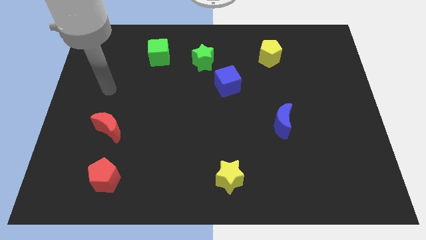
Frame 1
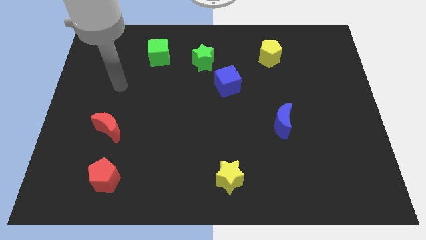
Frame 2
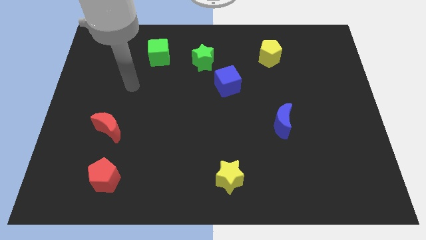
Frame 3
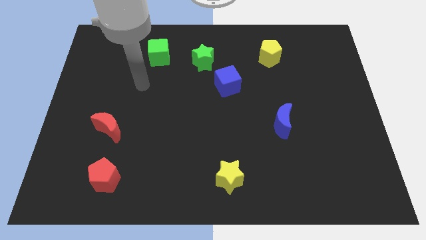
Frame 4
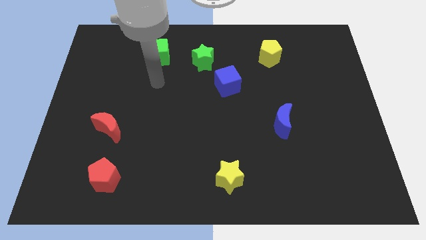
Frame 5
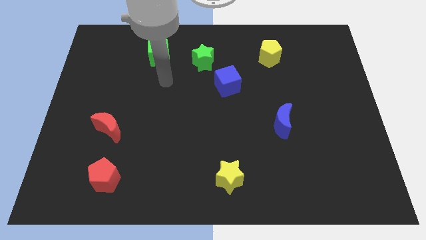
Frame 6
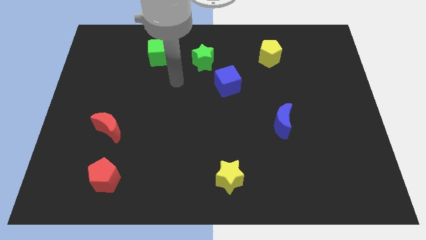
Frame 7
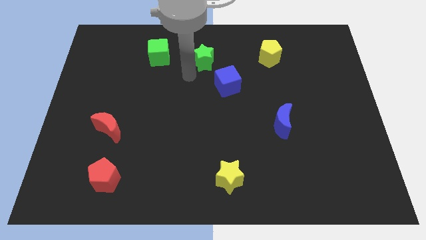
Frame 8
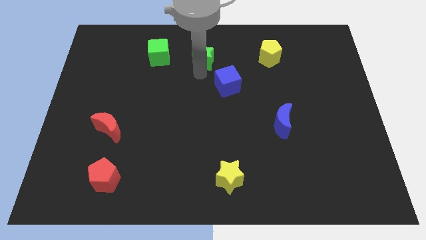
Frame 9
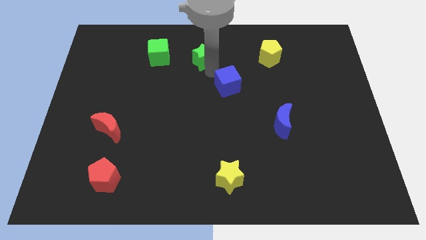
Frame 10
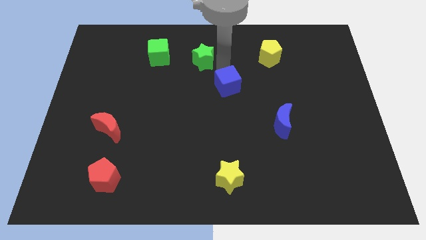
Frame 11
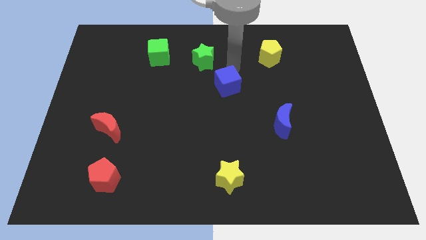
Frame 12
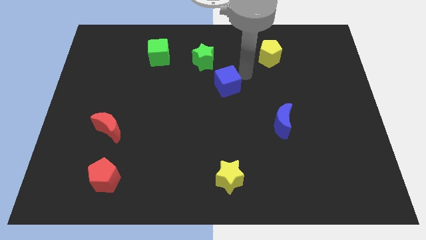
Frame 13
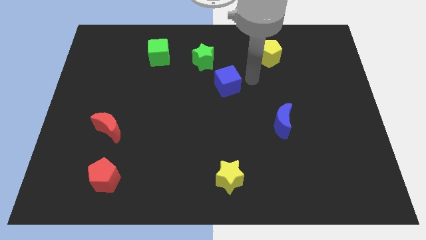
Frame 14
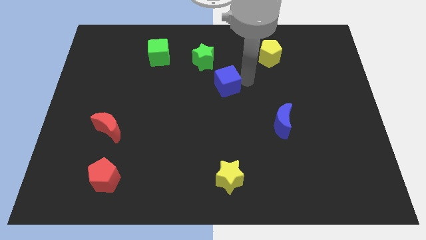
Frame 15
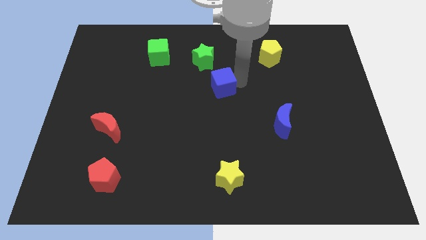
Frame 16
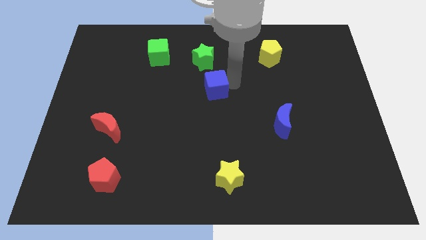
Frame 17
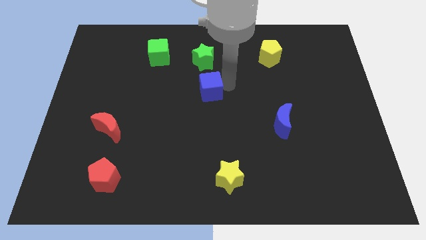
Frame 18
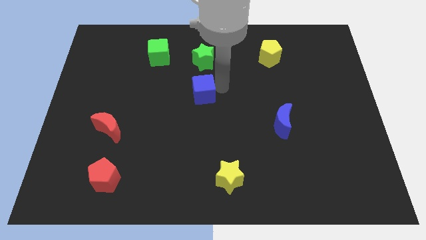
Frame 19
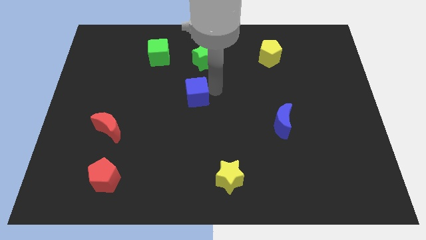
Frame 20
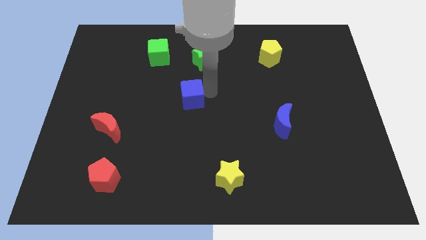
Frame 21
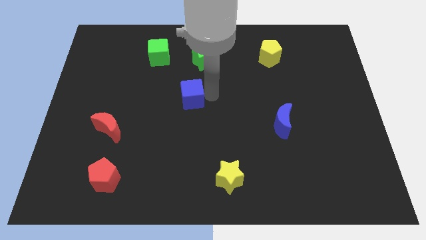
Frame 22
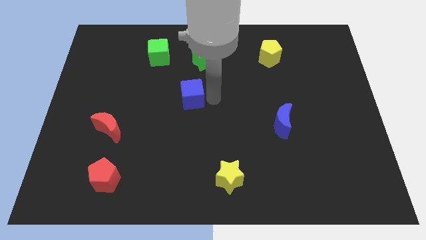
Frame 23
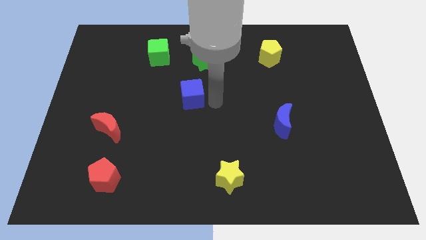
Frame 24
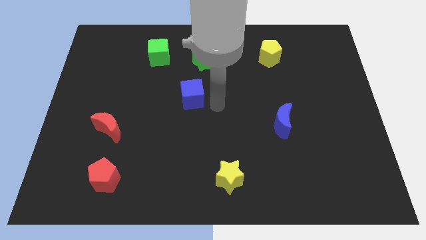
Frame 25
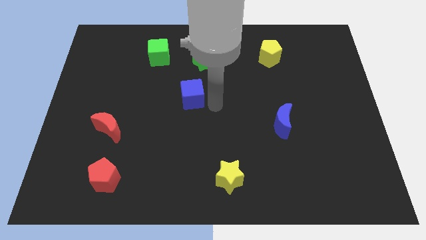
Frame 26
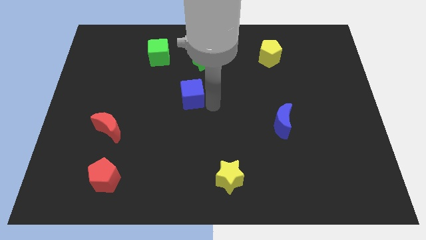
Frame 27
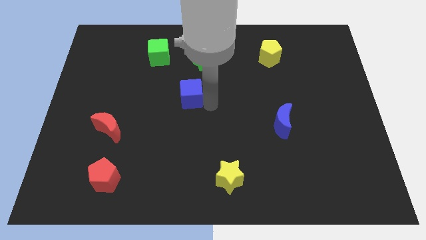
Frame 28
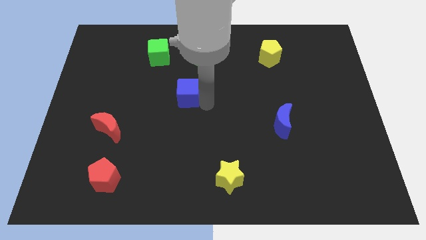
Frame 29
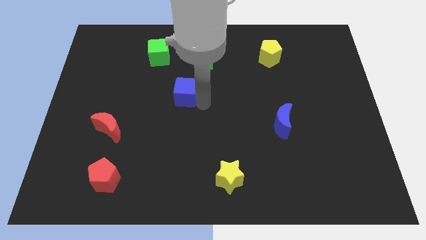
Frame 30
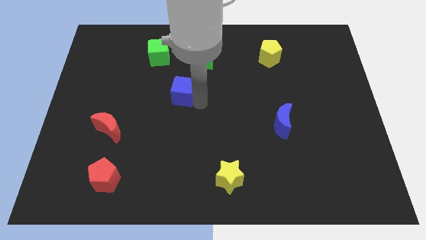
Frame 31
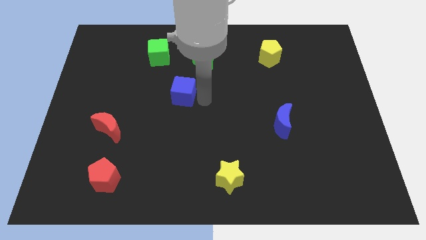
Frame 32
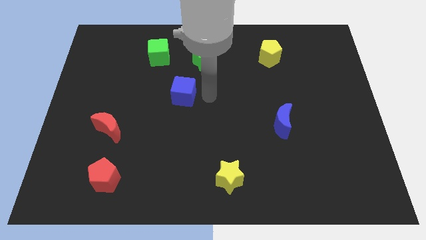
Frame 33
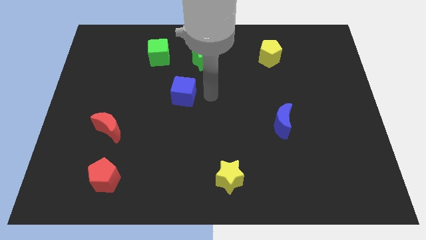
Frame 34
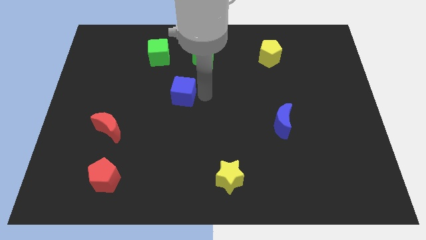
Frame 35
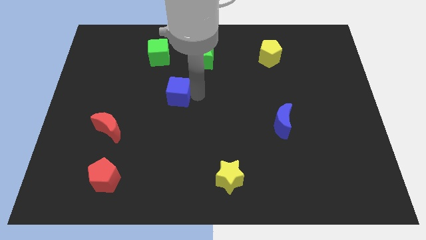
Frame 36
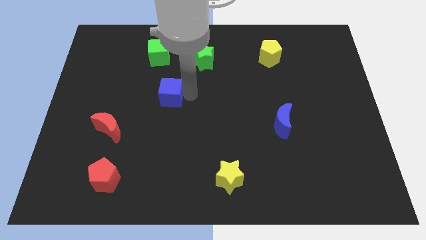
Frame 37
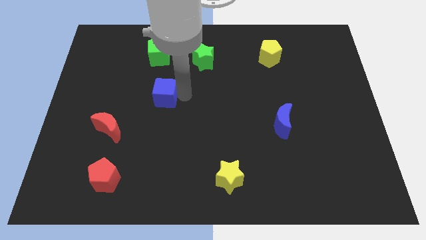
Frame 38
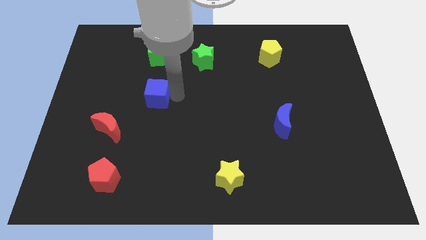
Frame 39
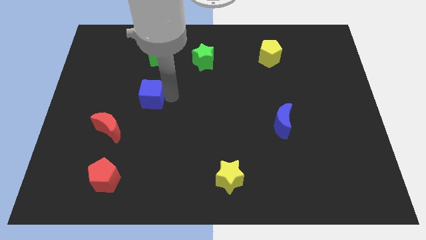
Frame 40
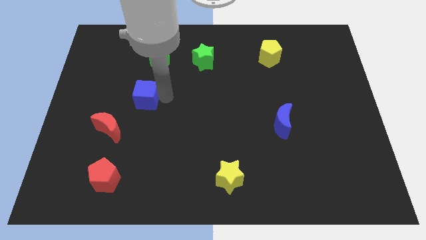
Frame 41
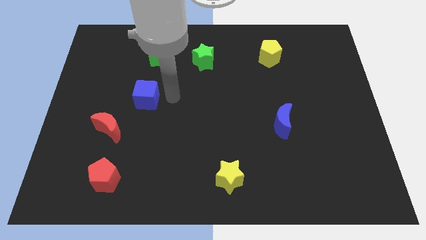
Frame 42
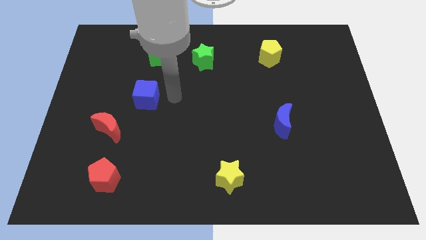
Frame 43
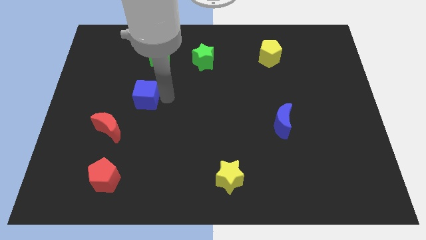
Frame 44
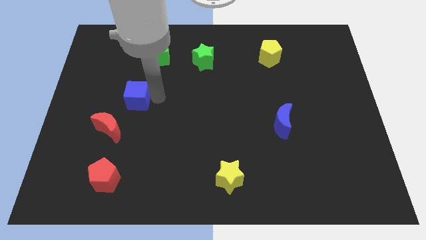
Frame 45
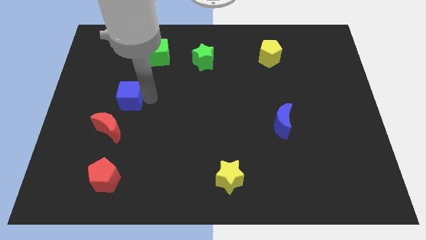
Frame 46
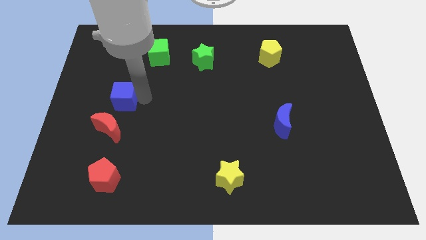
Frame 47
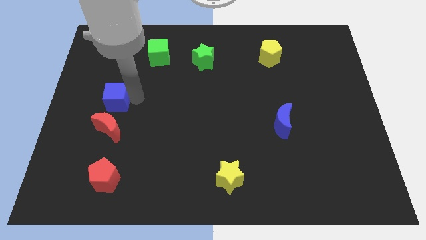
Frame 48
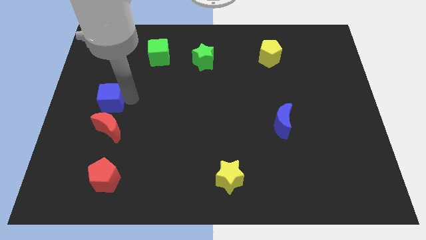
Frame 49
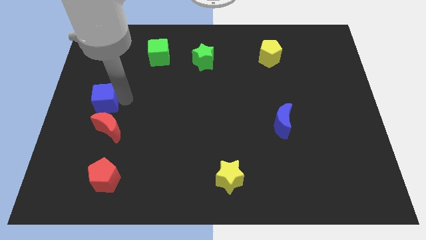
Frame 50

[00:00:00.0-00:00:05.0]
put the blue cube to the left side of the board

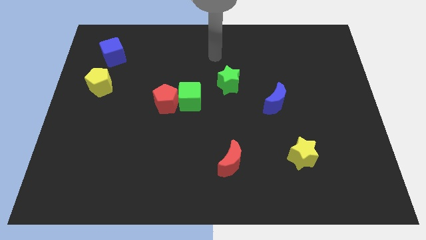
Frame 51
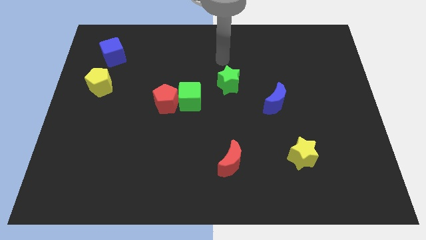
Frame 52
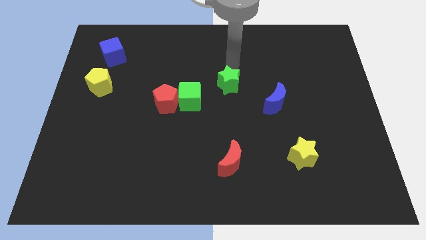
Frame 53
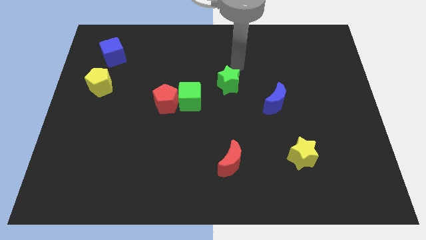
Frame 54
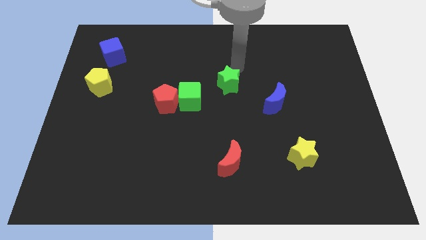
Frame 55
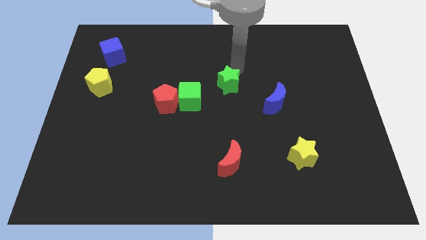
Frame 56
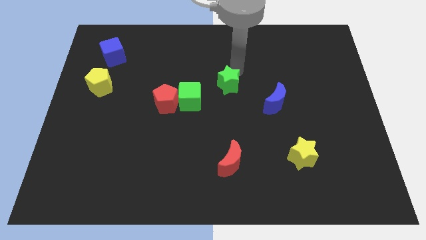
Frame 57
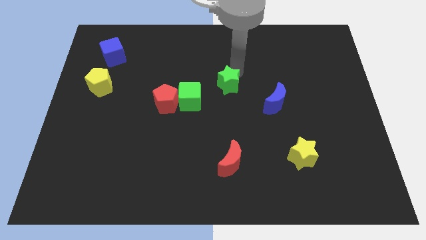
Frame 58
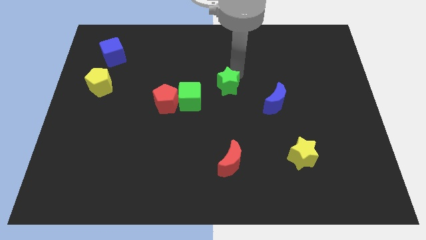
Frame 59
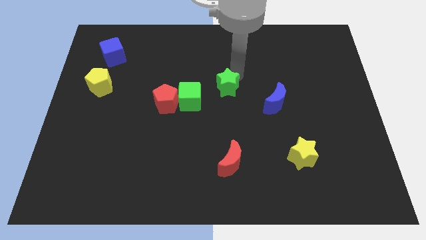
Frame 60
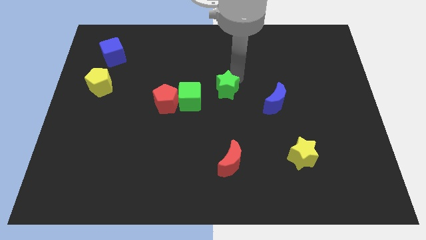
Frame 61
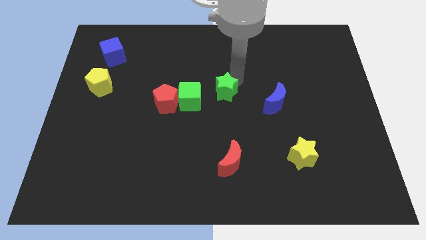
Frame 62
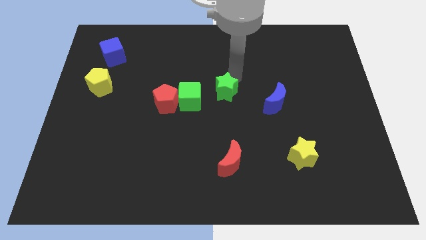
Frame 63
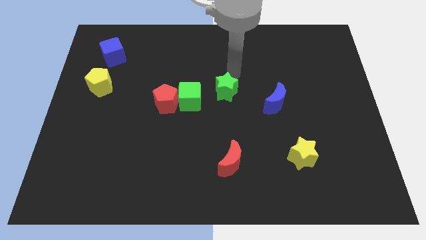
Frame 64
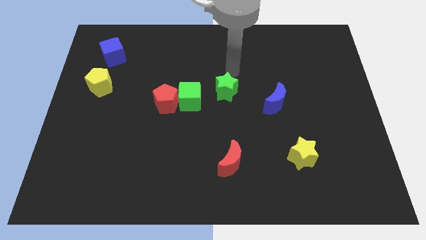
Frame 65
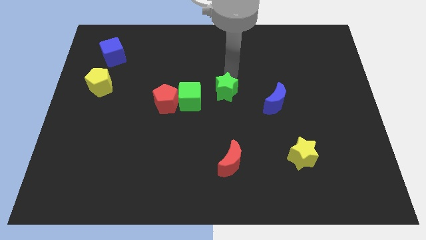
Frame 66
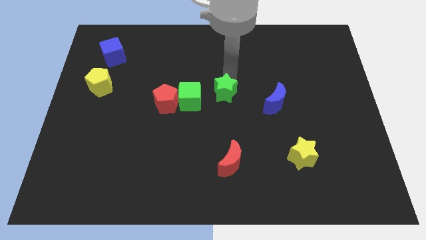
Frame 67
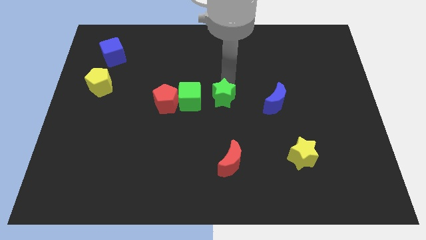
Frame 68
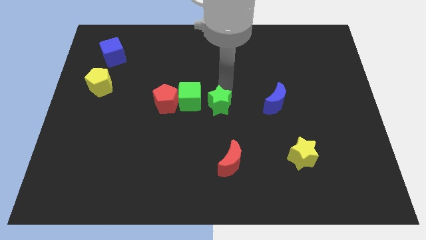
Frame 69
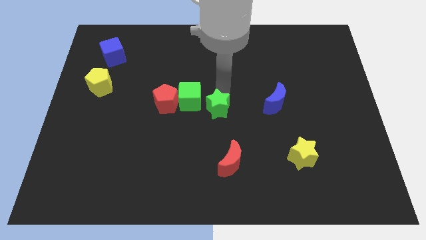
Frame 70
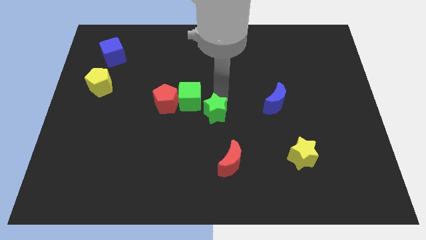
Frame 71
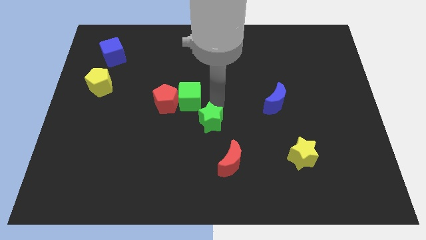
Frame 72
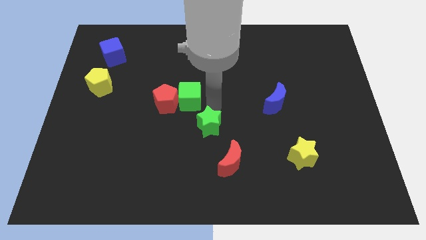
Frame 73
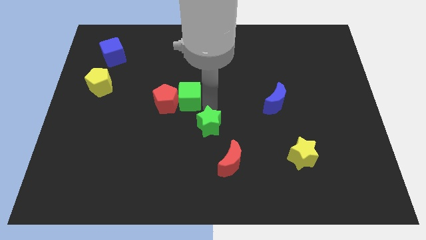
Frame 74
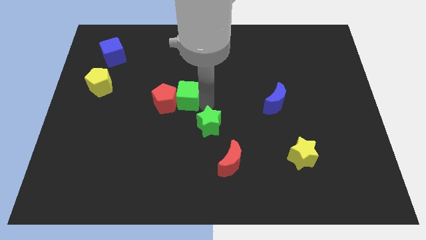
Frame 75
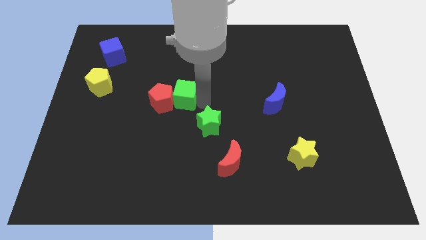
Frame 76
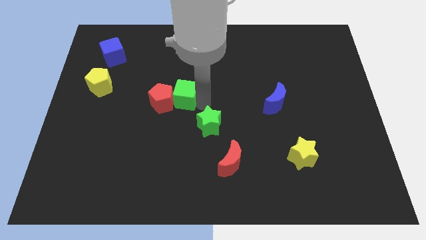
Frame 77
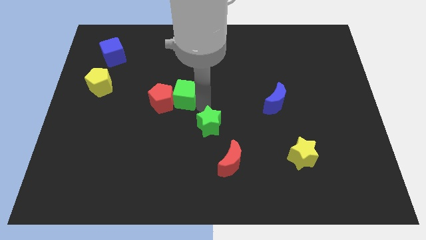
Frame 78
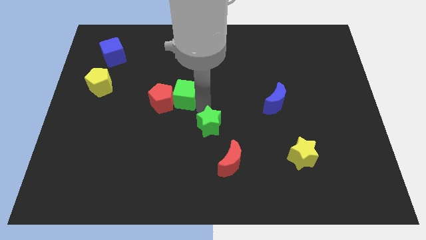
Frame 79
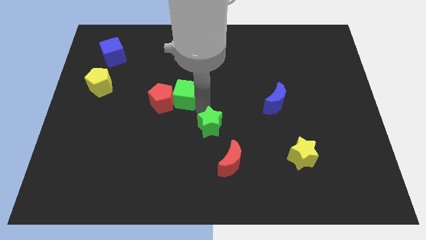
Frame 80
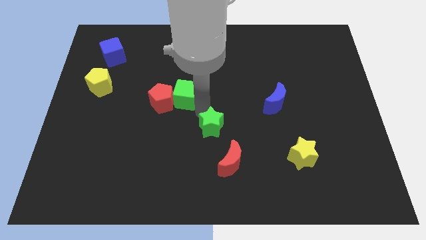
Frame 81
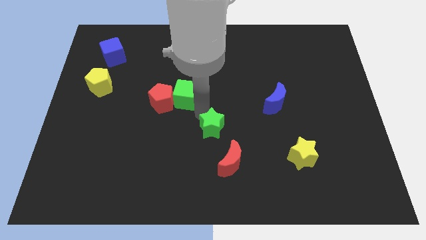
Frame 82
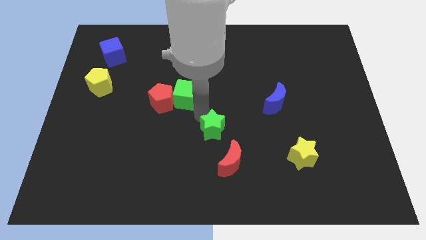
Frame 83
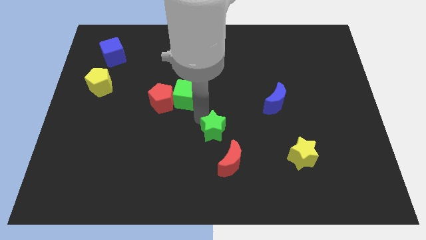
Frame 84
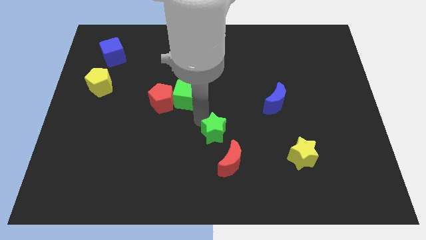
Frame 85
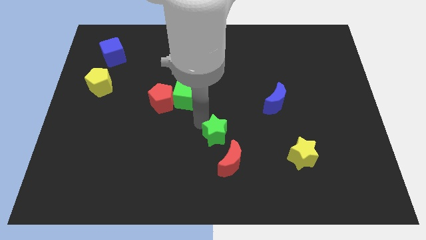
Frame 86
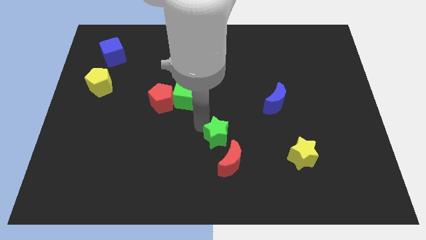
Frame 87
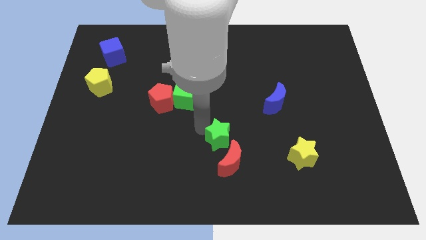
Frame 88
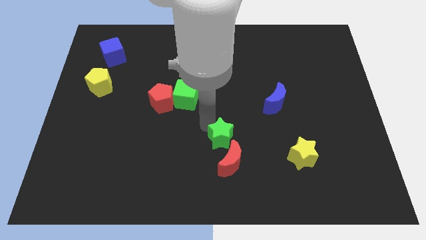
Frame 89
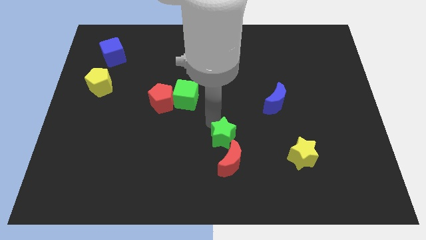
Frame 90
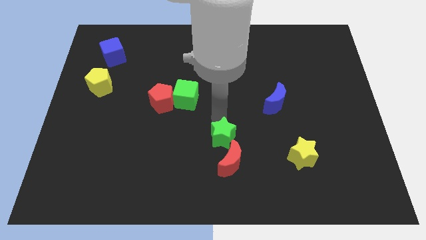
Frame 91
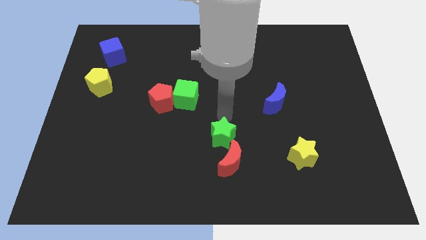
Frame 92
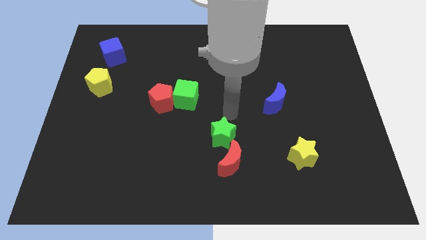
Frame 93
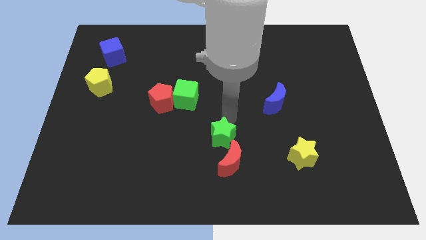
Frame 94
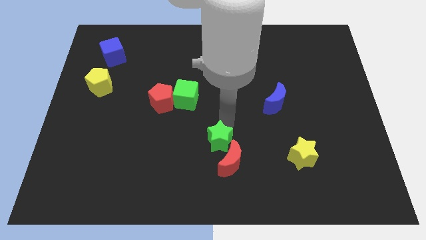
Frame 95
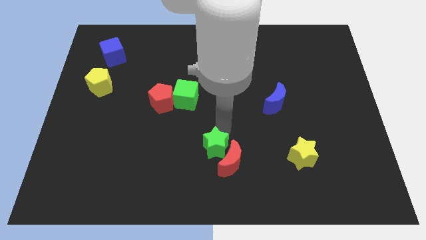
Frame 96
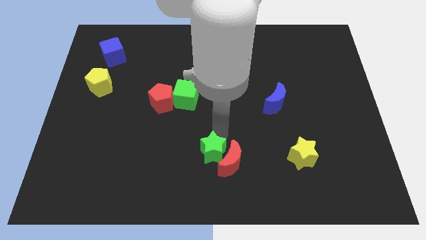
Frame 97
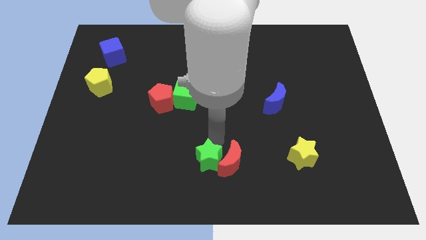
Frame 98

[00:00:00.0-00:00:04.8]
push the green star to the bottom
